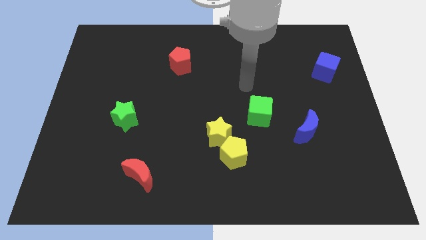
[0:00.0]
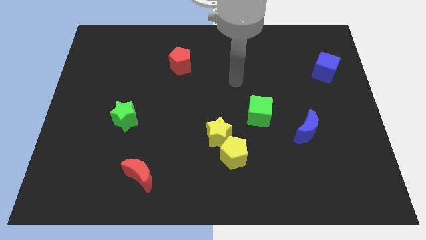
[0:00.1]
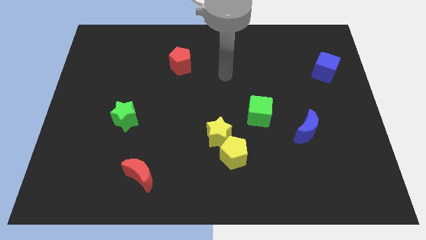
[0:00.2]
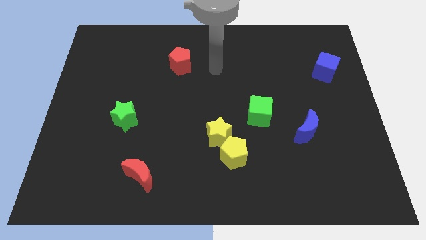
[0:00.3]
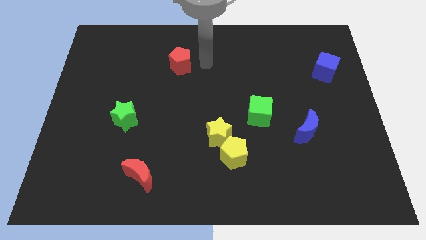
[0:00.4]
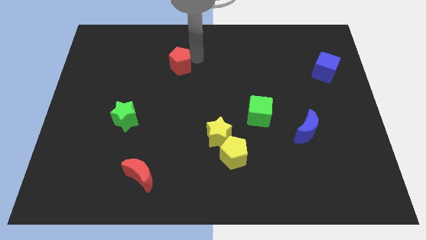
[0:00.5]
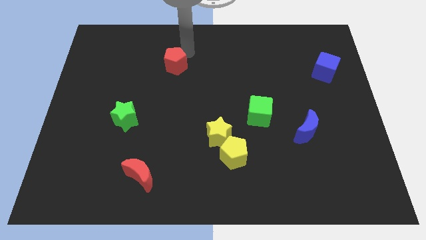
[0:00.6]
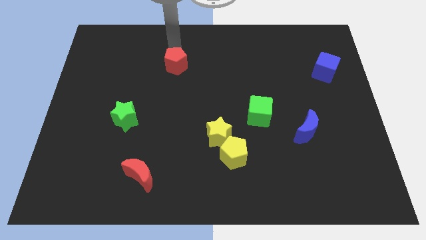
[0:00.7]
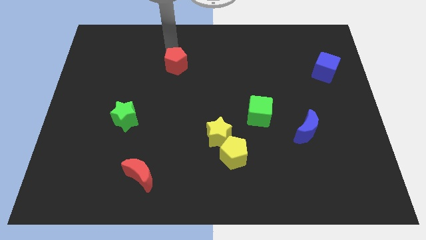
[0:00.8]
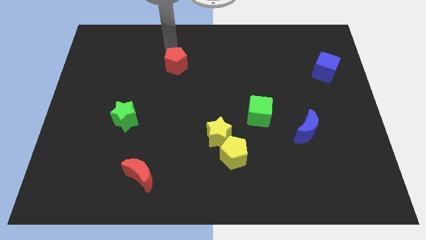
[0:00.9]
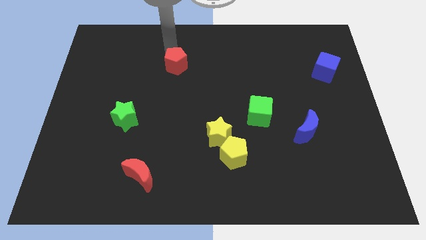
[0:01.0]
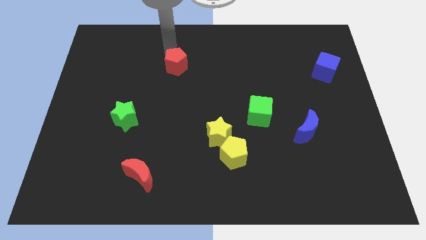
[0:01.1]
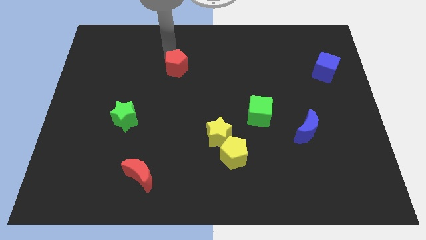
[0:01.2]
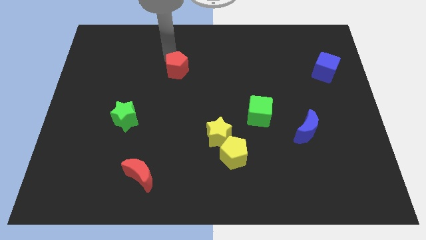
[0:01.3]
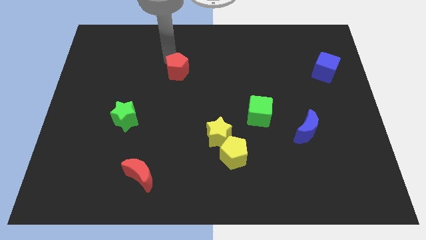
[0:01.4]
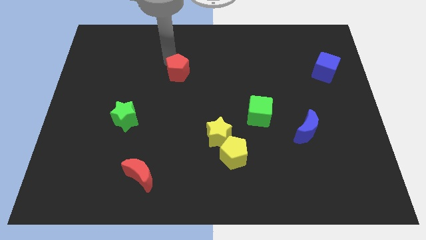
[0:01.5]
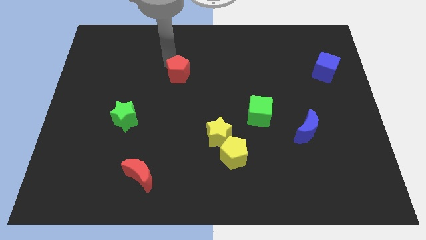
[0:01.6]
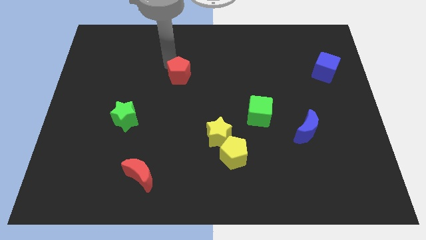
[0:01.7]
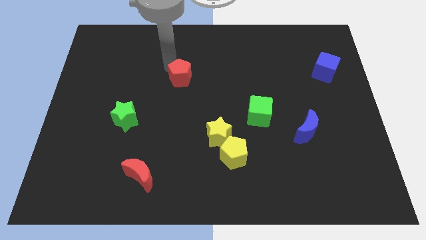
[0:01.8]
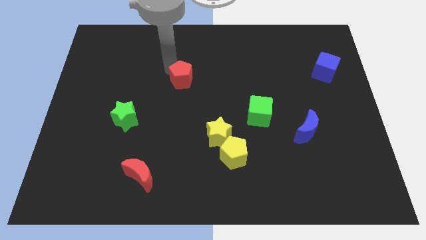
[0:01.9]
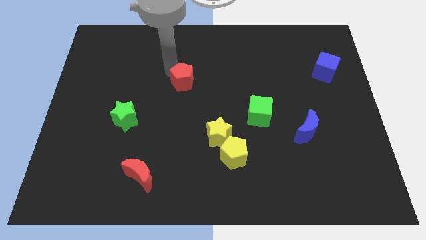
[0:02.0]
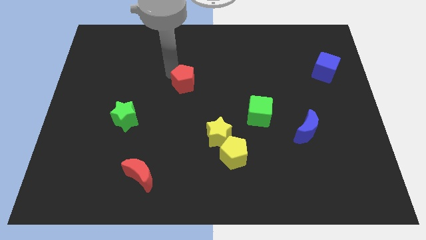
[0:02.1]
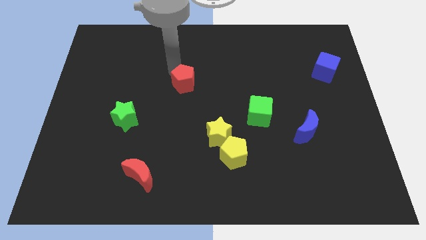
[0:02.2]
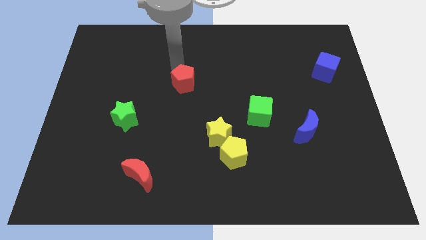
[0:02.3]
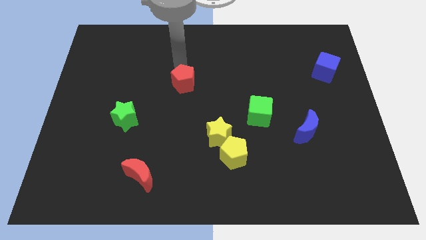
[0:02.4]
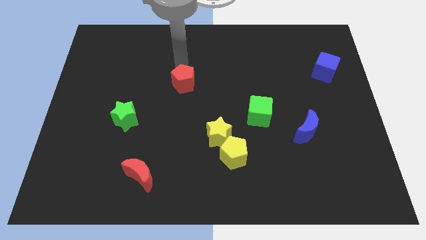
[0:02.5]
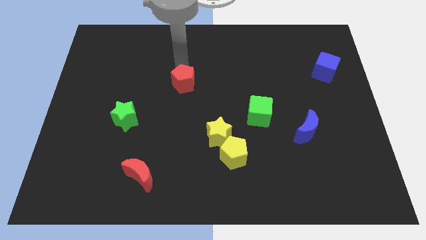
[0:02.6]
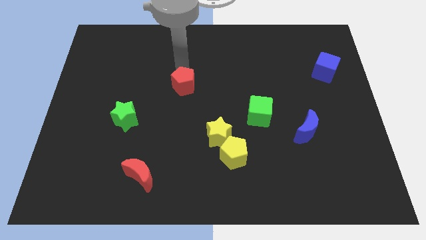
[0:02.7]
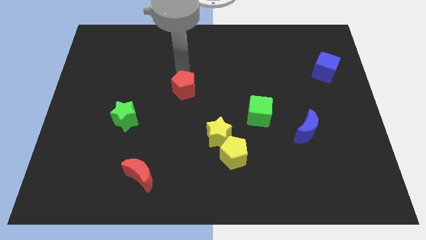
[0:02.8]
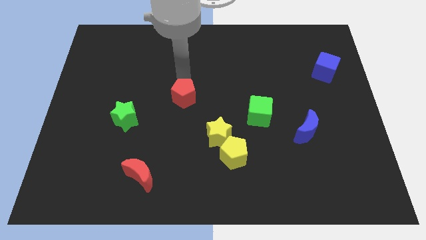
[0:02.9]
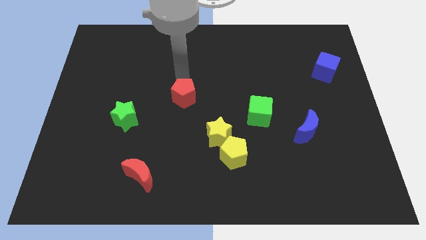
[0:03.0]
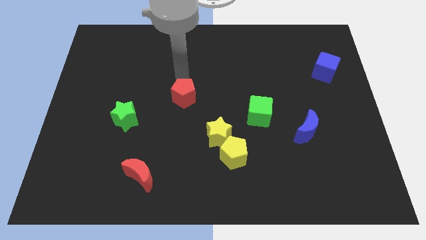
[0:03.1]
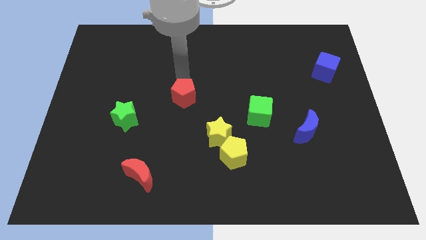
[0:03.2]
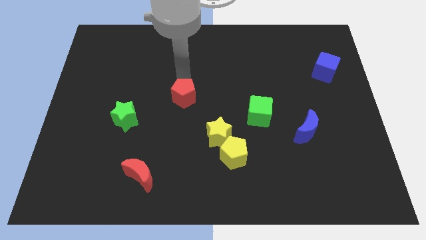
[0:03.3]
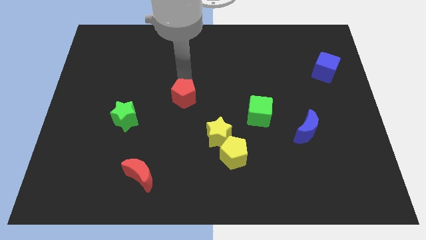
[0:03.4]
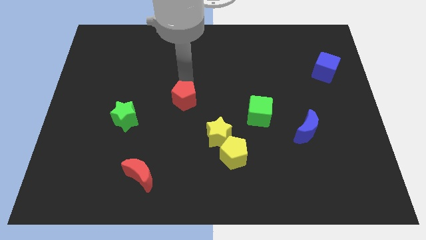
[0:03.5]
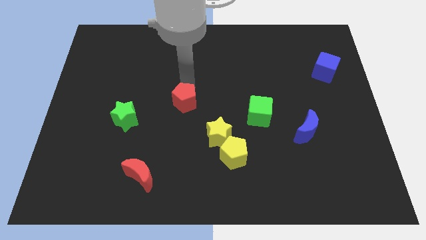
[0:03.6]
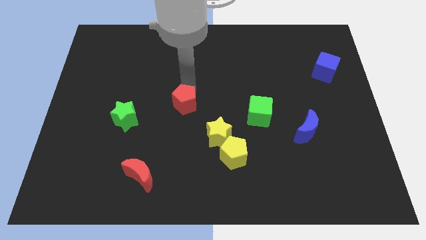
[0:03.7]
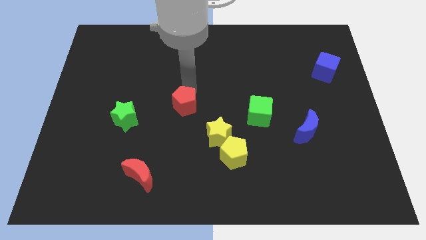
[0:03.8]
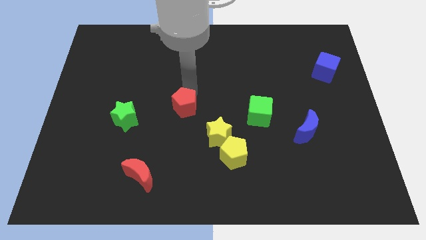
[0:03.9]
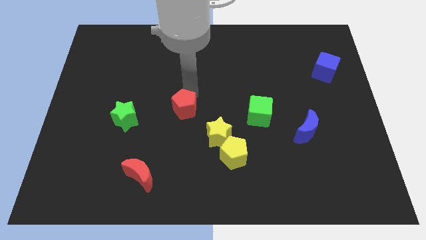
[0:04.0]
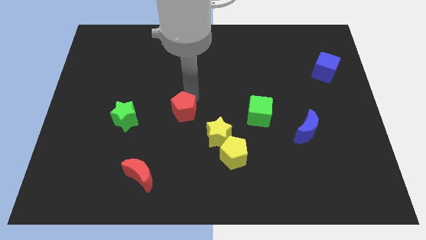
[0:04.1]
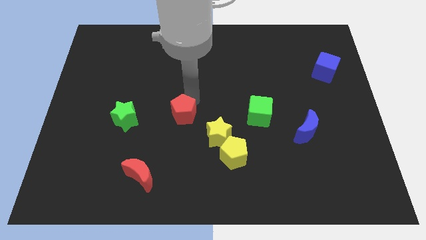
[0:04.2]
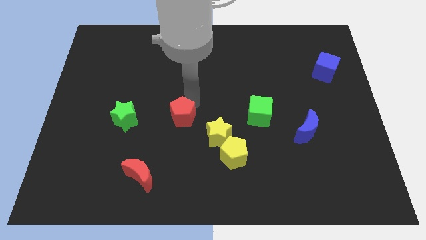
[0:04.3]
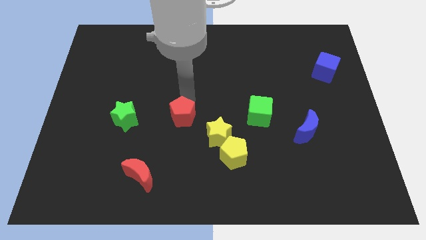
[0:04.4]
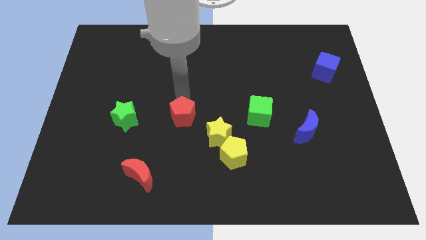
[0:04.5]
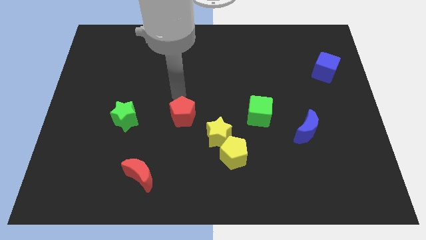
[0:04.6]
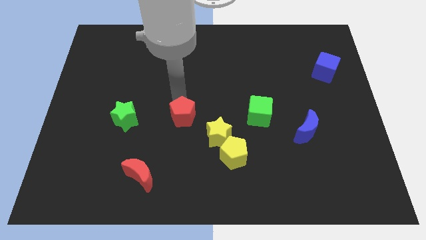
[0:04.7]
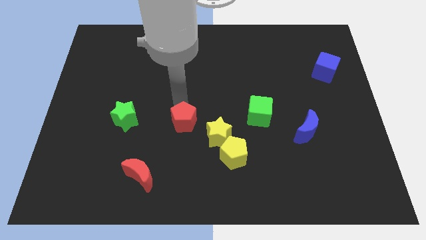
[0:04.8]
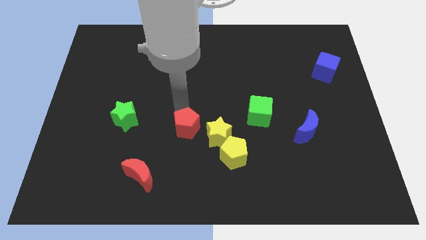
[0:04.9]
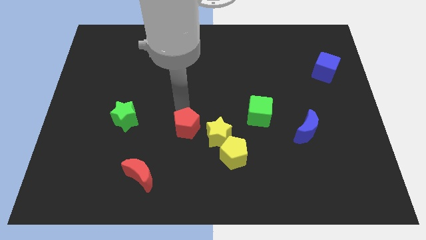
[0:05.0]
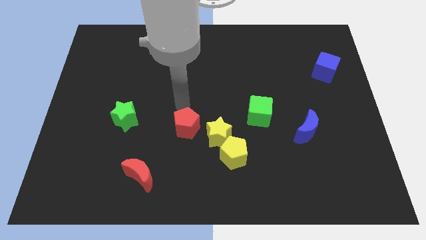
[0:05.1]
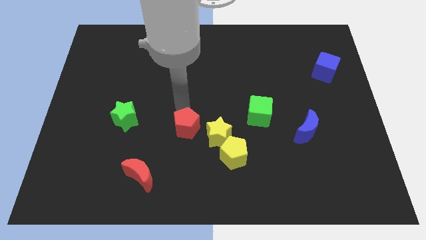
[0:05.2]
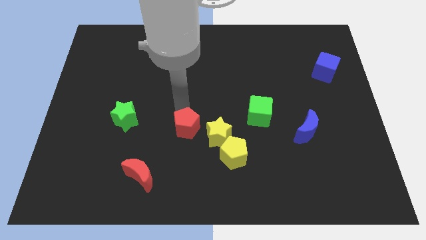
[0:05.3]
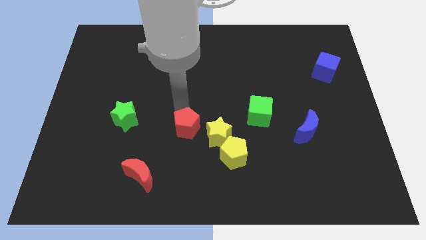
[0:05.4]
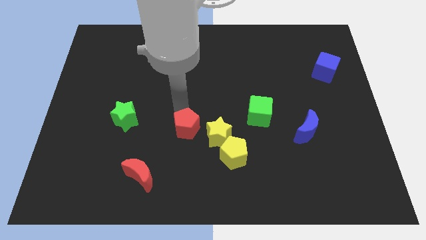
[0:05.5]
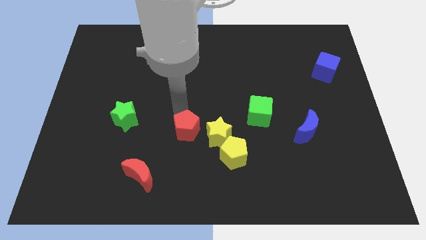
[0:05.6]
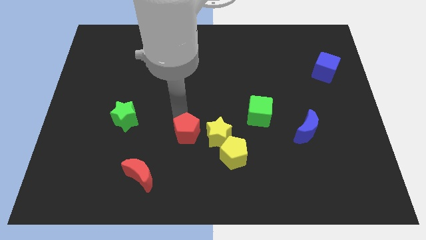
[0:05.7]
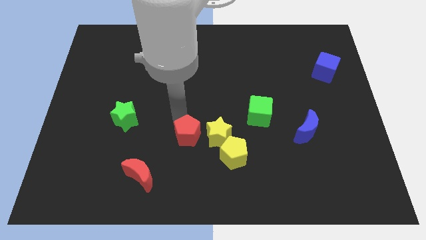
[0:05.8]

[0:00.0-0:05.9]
put the red pentagon just left of the yellow pentagon

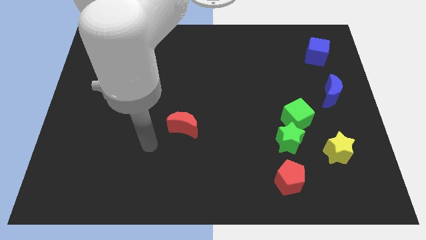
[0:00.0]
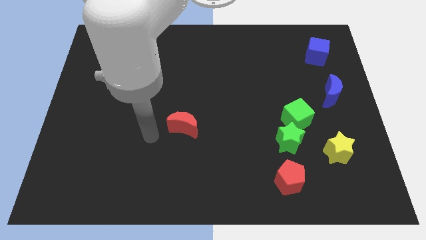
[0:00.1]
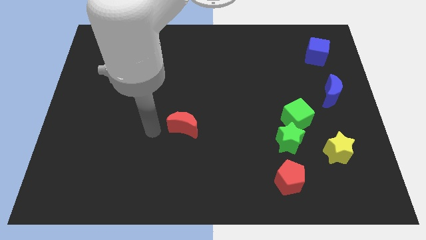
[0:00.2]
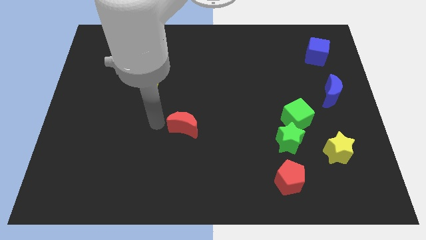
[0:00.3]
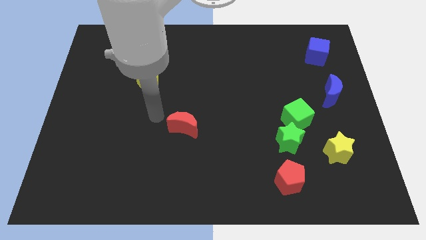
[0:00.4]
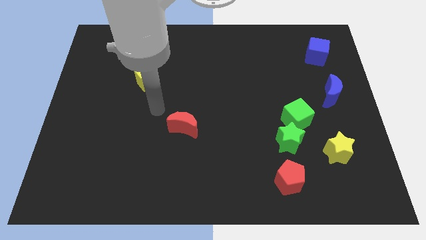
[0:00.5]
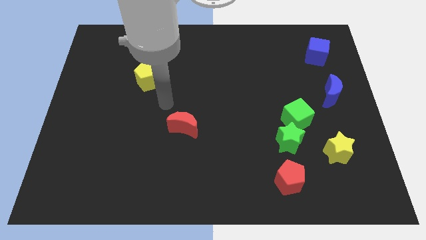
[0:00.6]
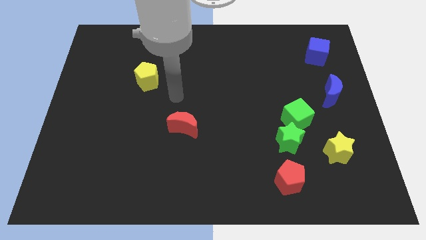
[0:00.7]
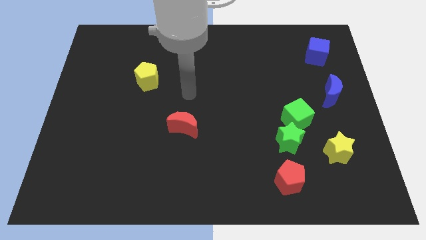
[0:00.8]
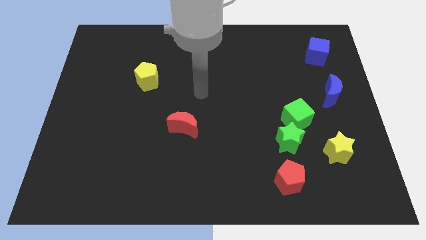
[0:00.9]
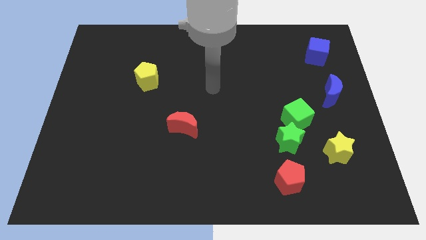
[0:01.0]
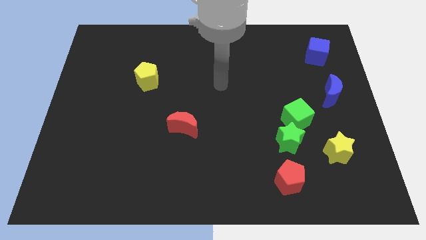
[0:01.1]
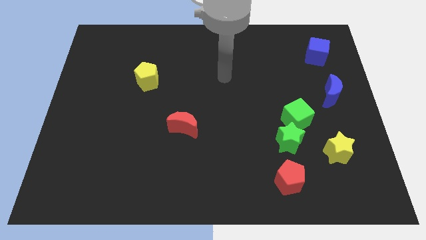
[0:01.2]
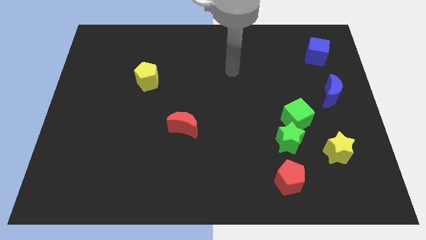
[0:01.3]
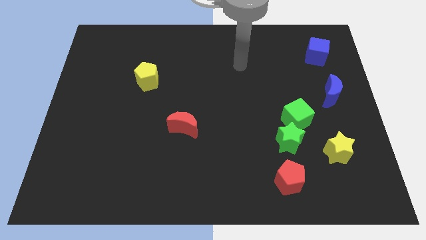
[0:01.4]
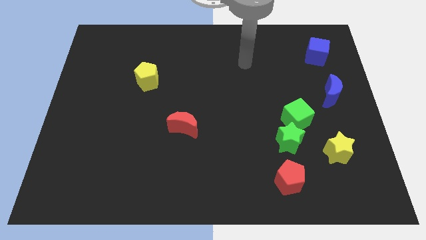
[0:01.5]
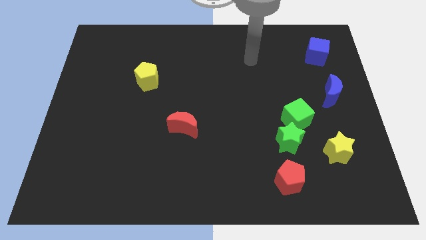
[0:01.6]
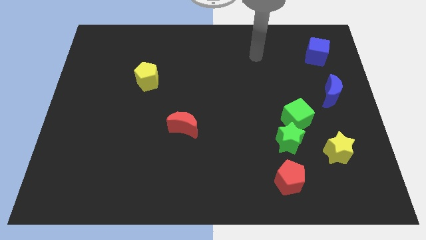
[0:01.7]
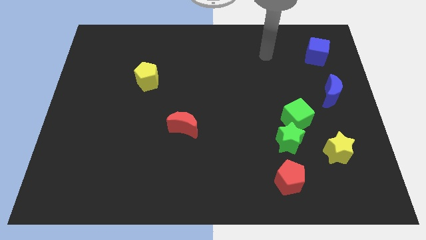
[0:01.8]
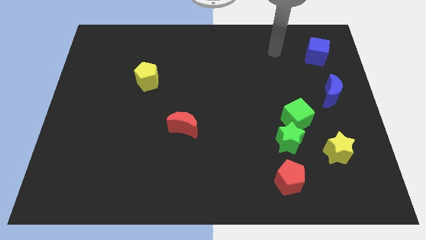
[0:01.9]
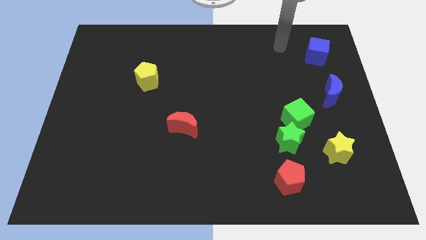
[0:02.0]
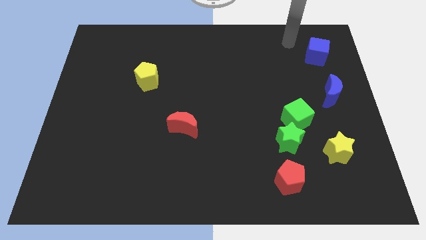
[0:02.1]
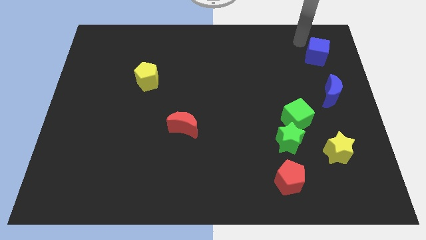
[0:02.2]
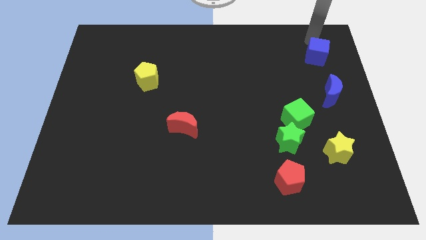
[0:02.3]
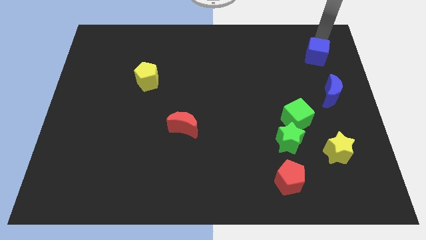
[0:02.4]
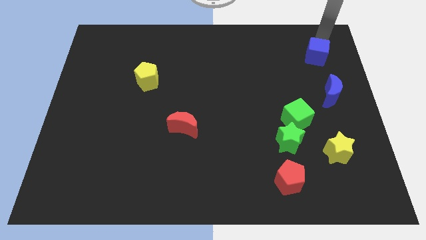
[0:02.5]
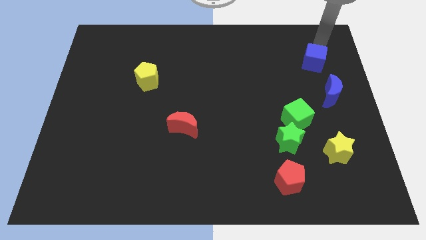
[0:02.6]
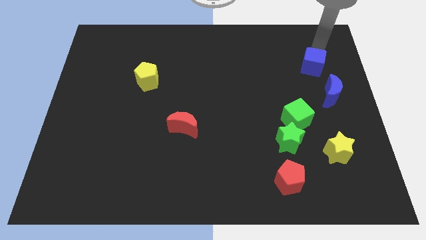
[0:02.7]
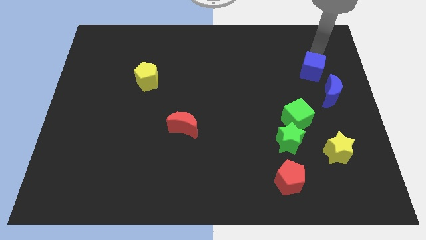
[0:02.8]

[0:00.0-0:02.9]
move the blue cube to the top left of the blue moon
